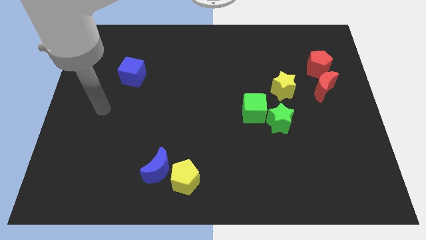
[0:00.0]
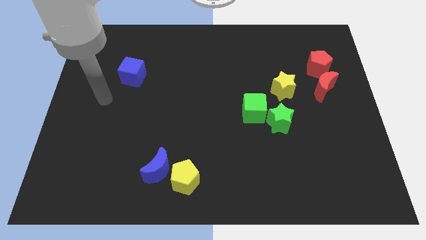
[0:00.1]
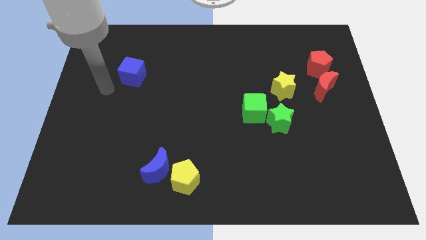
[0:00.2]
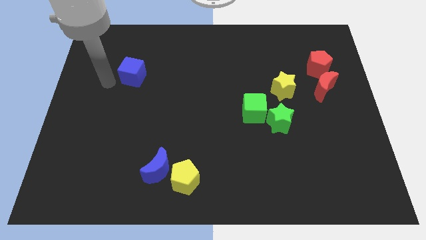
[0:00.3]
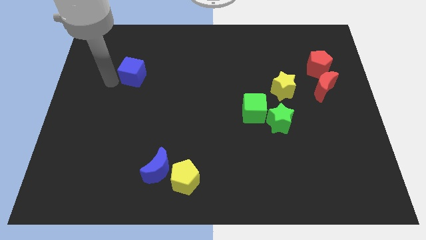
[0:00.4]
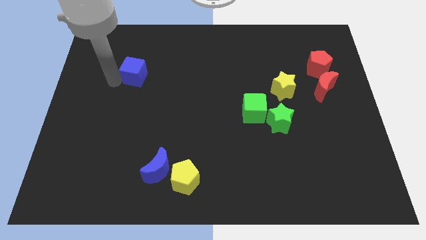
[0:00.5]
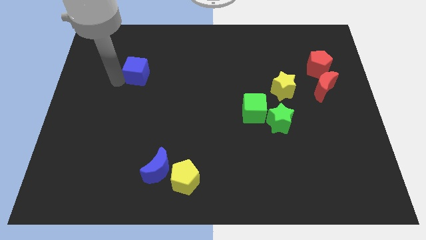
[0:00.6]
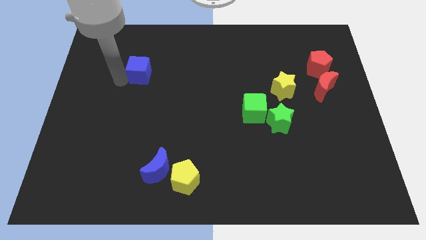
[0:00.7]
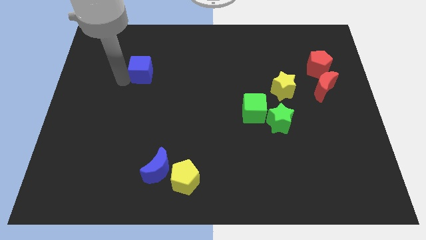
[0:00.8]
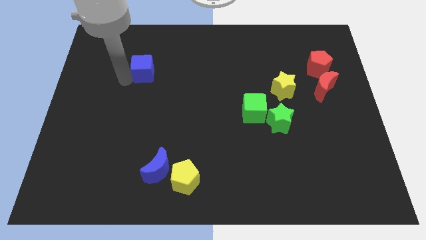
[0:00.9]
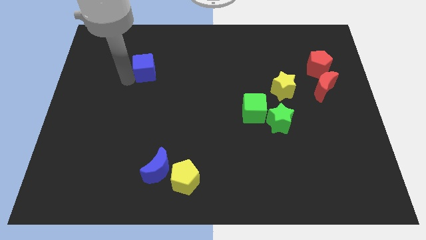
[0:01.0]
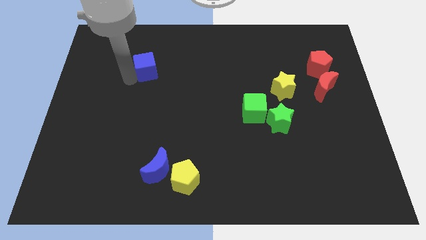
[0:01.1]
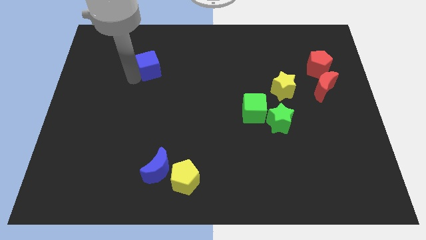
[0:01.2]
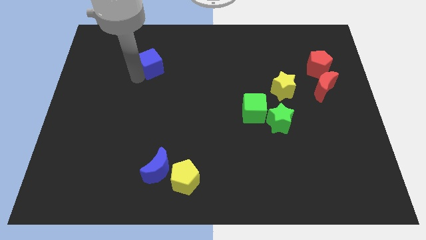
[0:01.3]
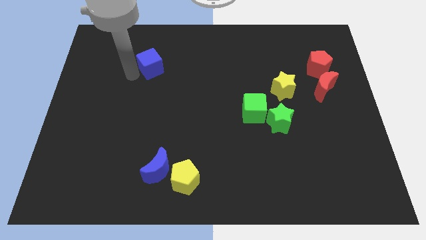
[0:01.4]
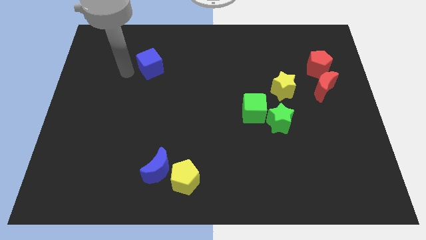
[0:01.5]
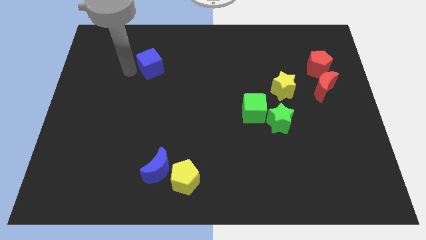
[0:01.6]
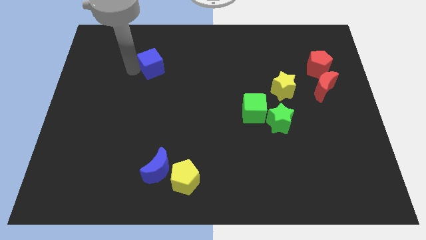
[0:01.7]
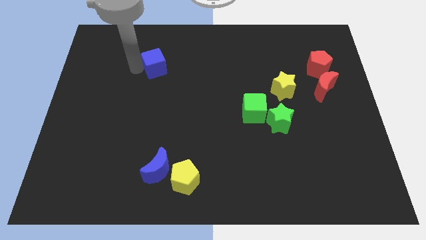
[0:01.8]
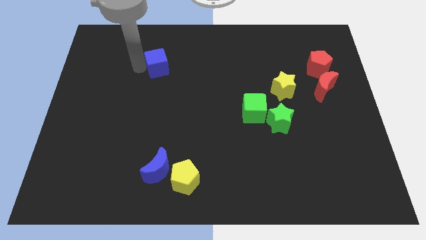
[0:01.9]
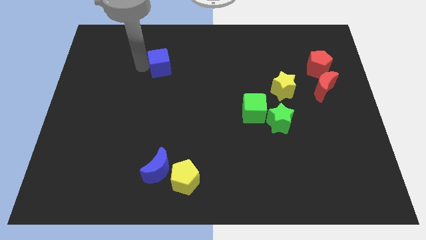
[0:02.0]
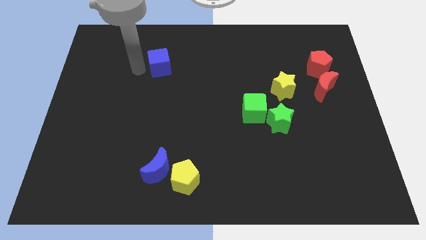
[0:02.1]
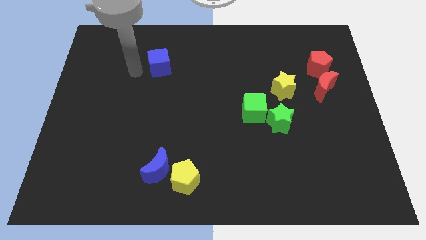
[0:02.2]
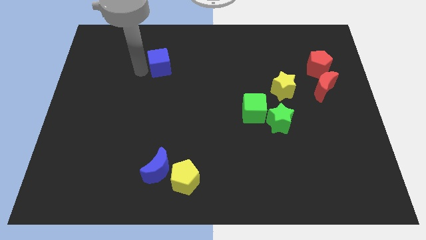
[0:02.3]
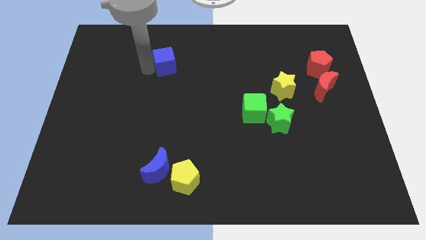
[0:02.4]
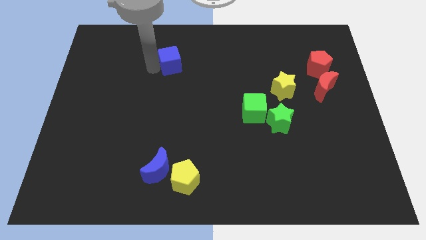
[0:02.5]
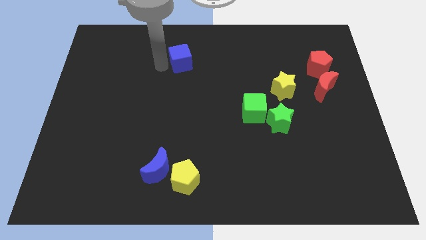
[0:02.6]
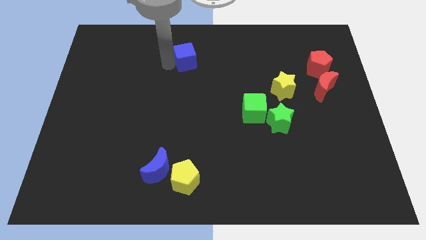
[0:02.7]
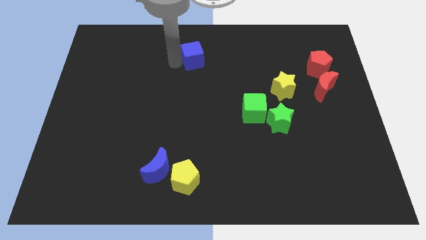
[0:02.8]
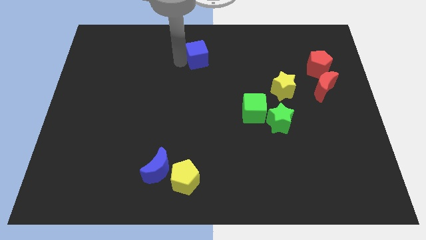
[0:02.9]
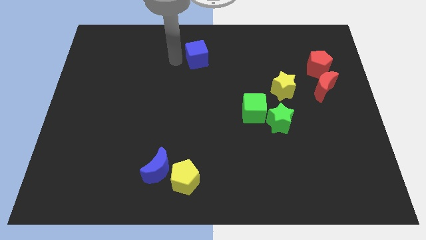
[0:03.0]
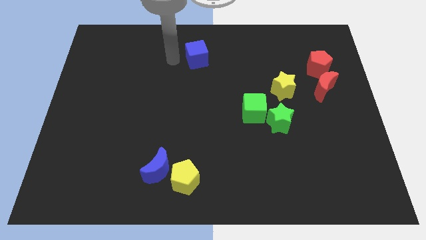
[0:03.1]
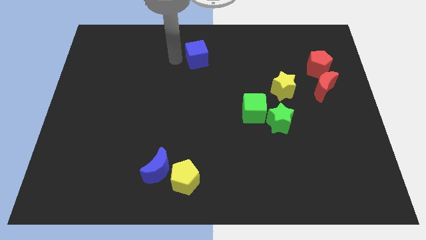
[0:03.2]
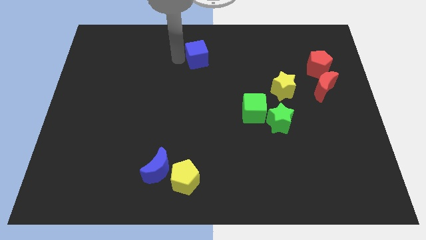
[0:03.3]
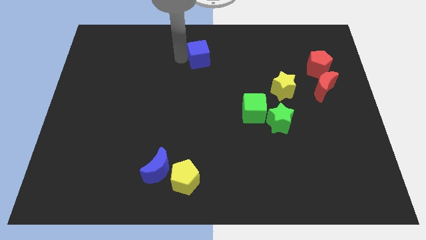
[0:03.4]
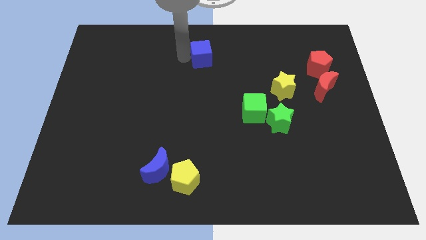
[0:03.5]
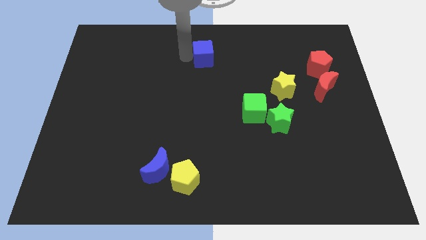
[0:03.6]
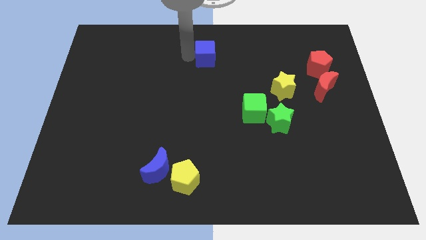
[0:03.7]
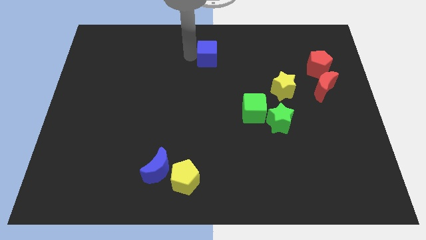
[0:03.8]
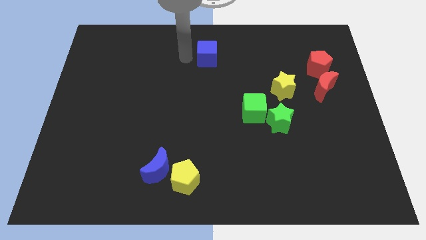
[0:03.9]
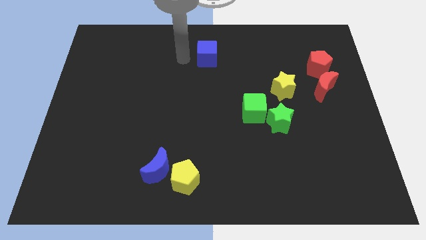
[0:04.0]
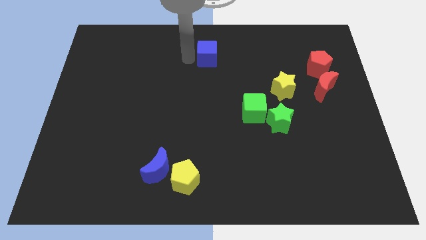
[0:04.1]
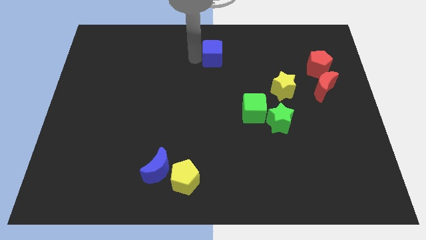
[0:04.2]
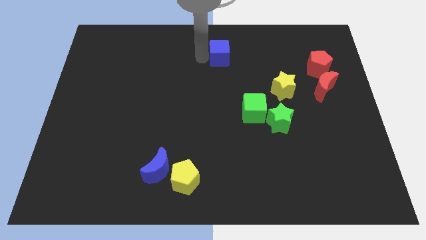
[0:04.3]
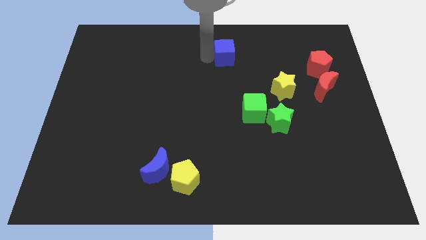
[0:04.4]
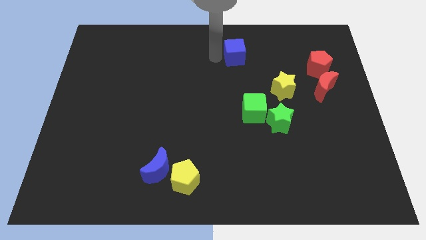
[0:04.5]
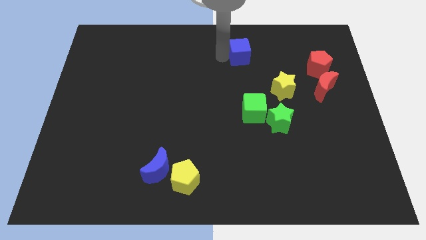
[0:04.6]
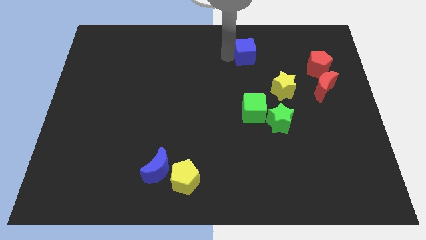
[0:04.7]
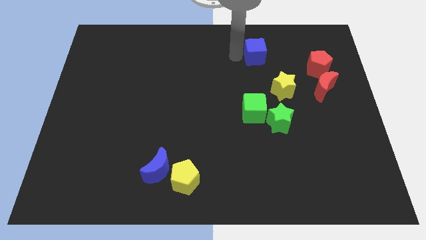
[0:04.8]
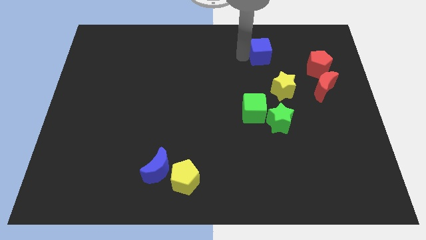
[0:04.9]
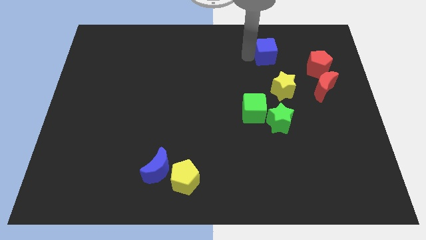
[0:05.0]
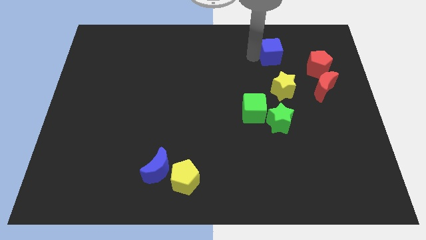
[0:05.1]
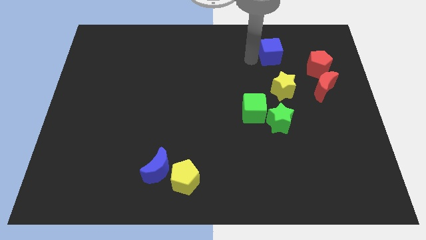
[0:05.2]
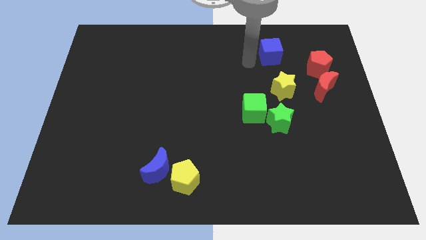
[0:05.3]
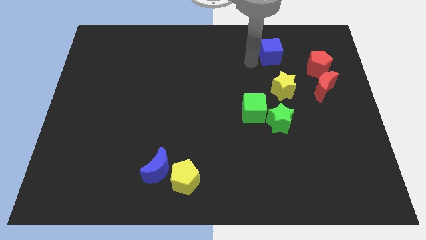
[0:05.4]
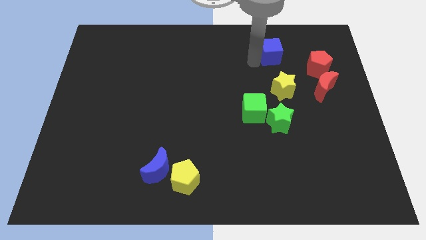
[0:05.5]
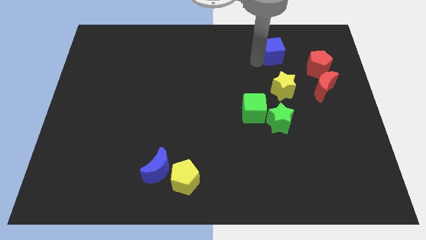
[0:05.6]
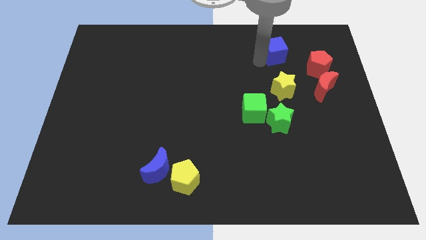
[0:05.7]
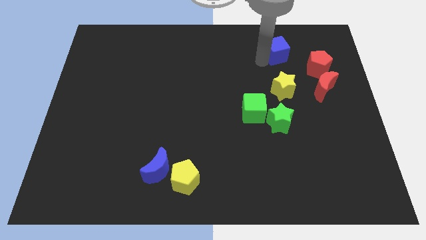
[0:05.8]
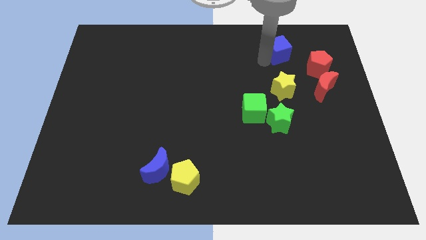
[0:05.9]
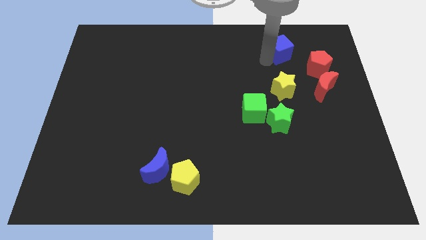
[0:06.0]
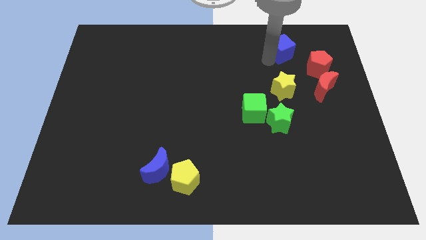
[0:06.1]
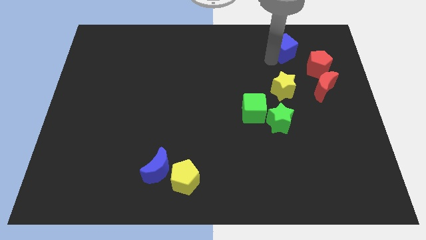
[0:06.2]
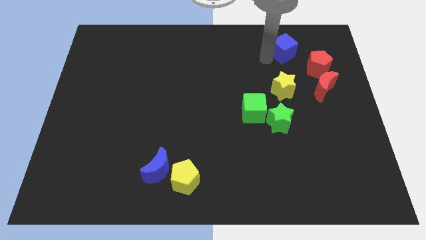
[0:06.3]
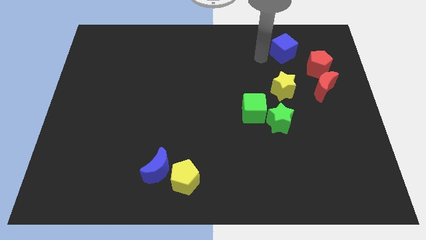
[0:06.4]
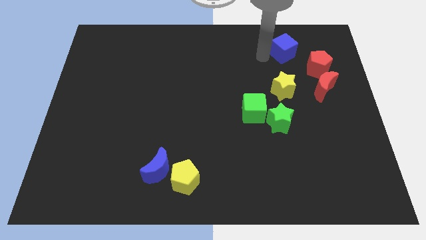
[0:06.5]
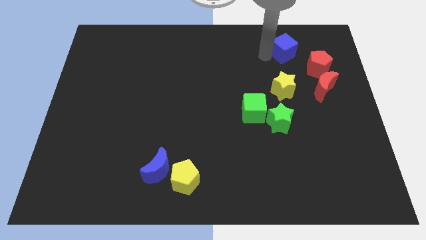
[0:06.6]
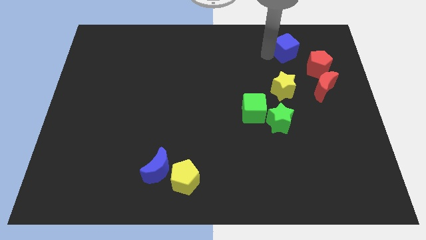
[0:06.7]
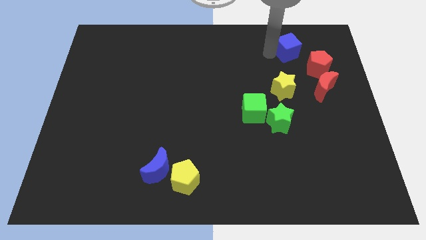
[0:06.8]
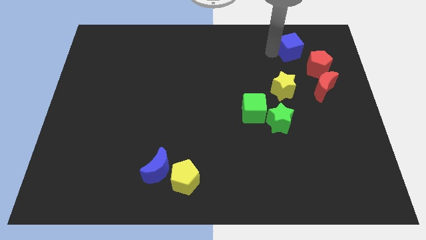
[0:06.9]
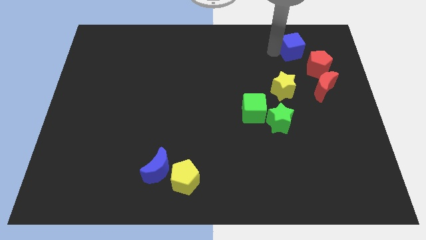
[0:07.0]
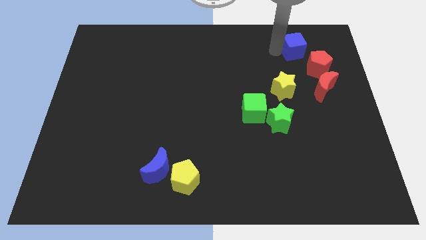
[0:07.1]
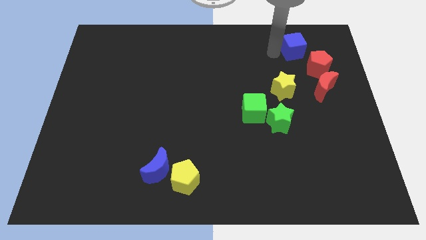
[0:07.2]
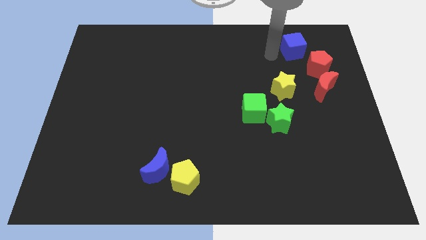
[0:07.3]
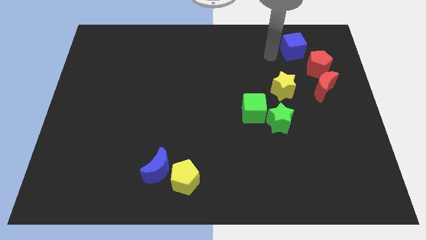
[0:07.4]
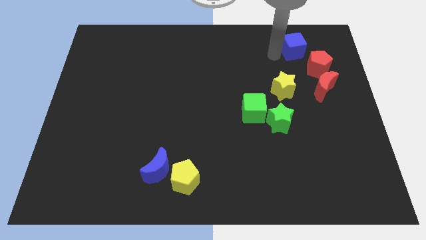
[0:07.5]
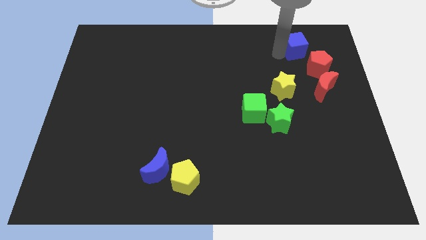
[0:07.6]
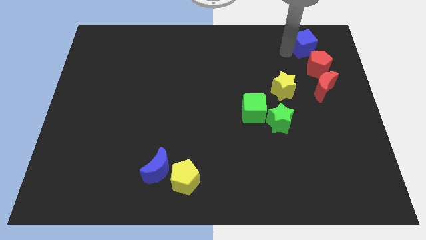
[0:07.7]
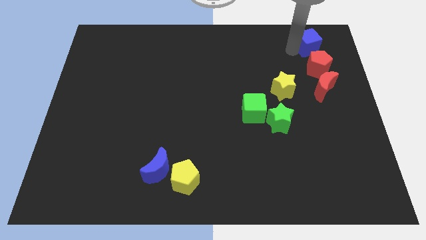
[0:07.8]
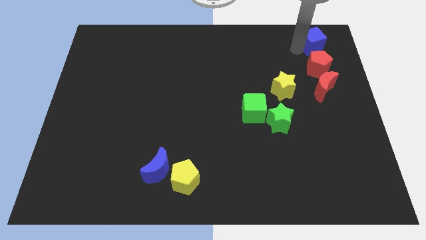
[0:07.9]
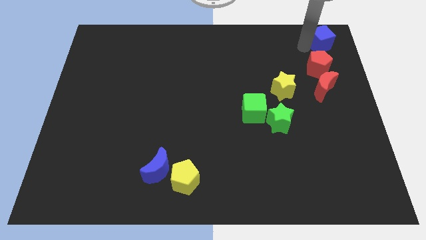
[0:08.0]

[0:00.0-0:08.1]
push the blue cube to the upper right corner
